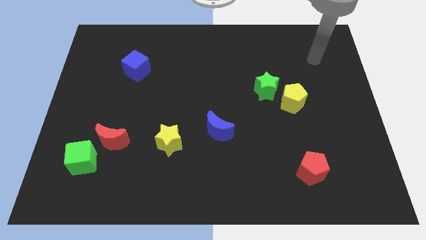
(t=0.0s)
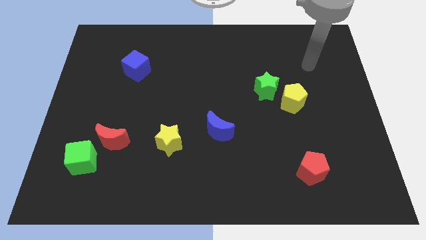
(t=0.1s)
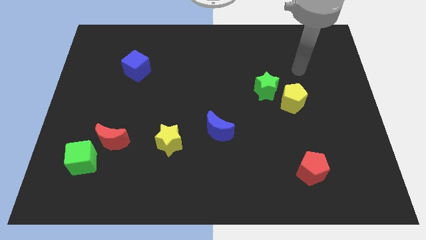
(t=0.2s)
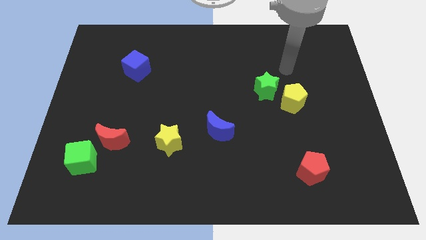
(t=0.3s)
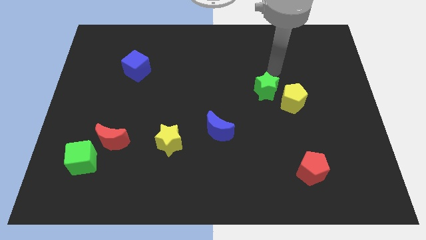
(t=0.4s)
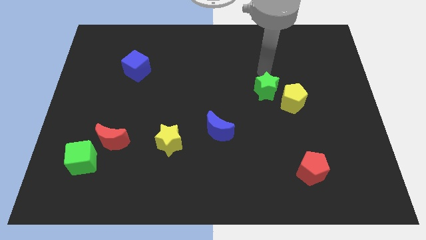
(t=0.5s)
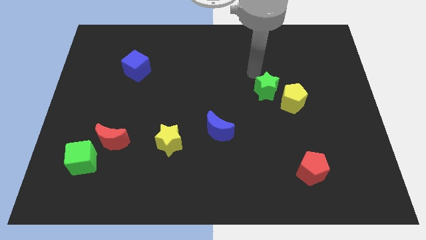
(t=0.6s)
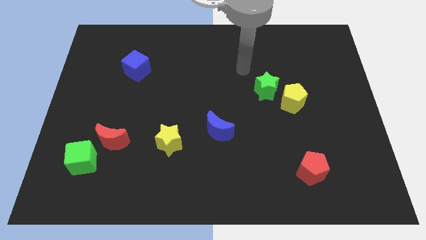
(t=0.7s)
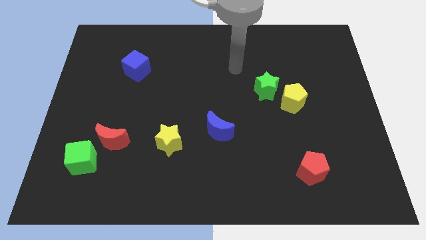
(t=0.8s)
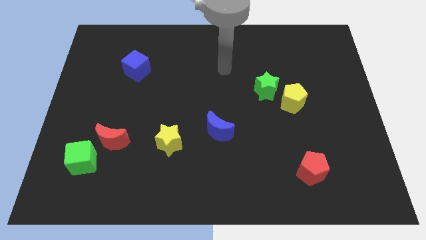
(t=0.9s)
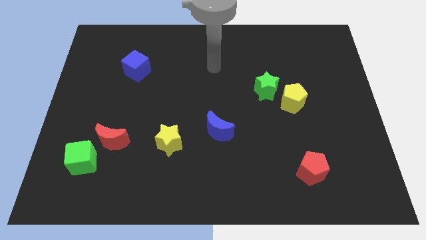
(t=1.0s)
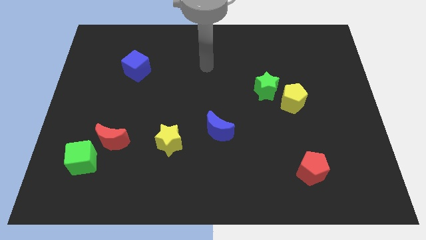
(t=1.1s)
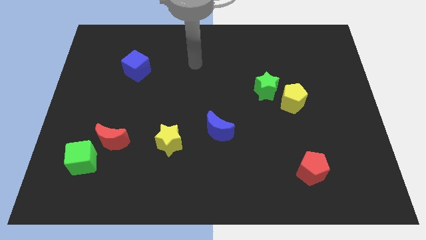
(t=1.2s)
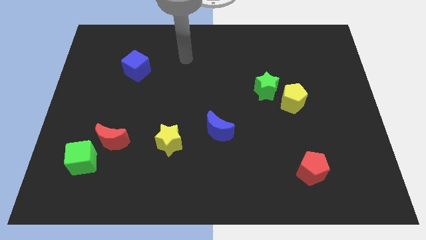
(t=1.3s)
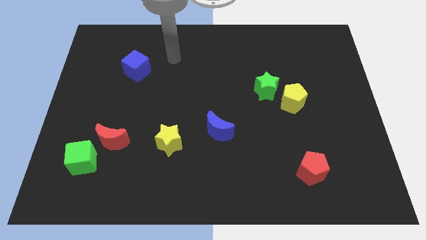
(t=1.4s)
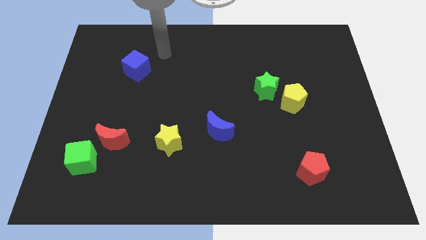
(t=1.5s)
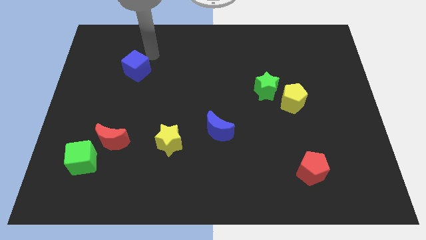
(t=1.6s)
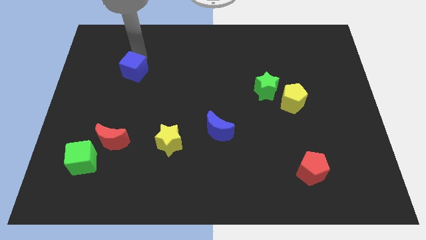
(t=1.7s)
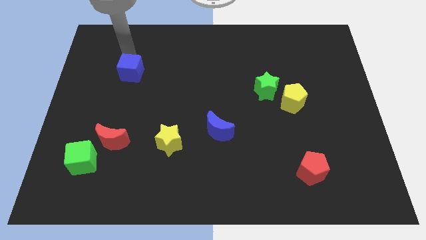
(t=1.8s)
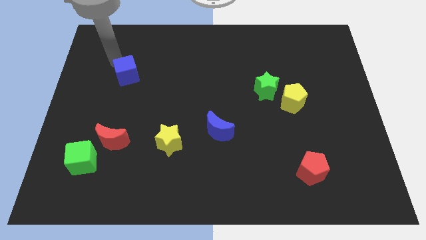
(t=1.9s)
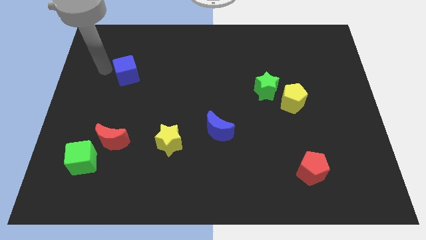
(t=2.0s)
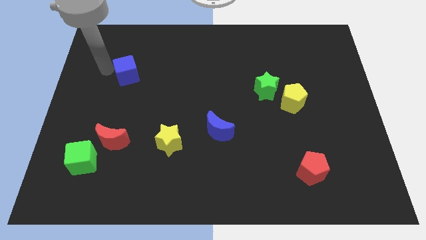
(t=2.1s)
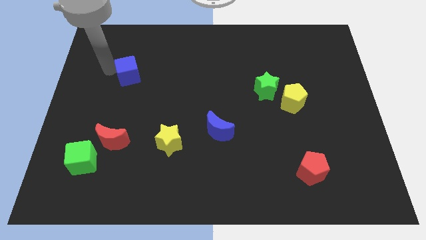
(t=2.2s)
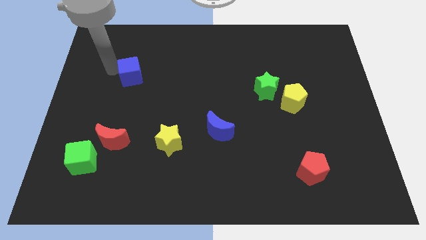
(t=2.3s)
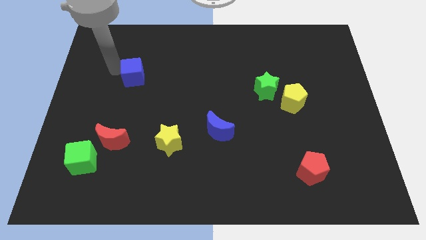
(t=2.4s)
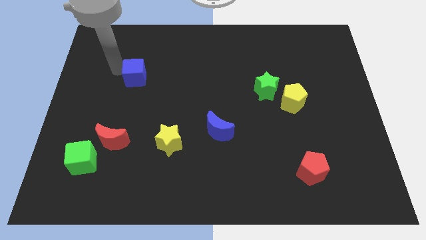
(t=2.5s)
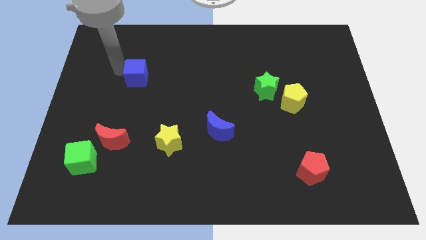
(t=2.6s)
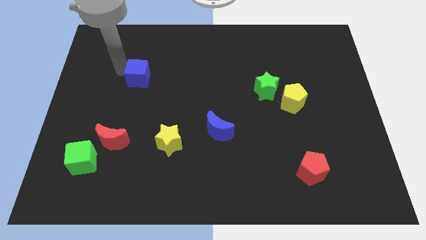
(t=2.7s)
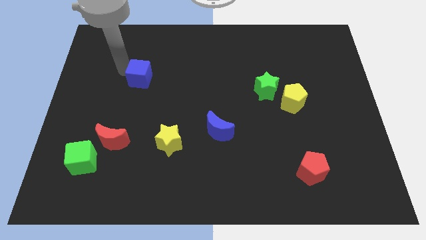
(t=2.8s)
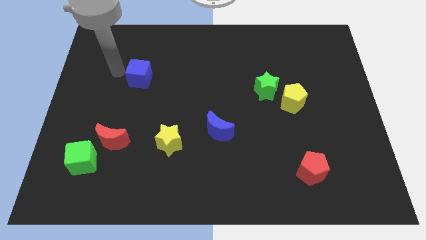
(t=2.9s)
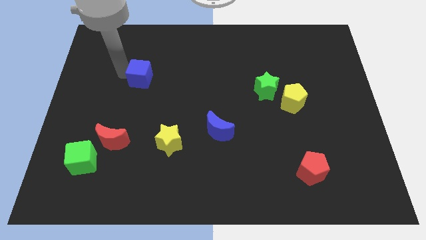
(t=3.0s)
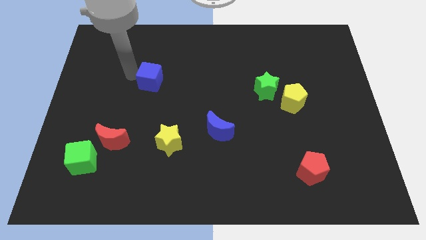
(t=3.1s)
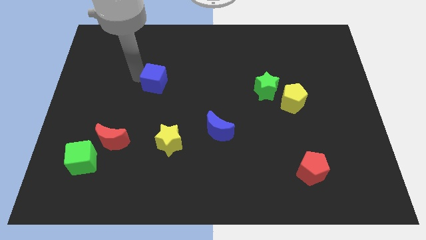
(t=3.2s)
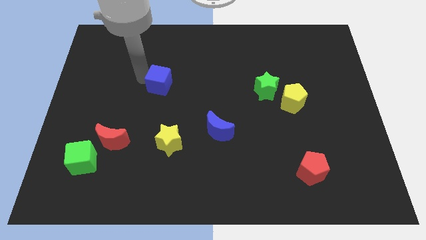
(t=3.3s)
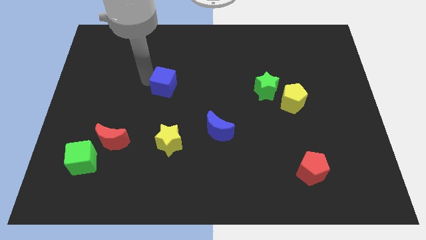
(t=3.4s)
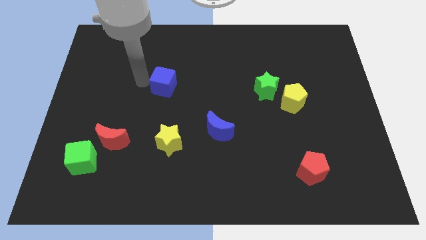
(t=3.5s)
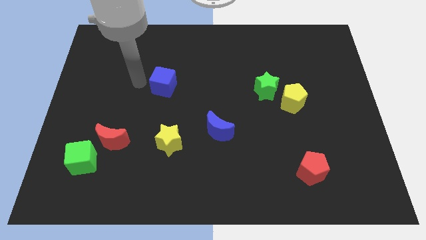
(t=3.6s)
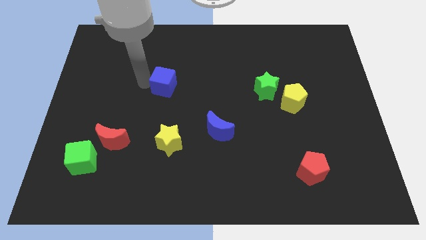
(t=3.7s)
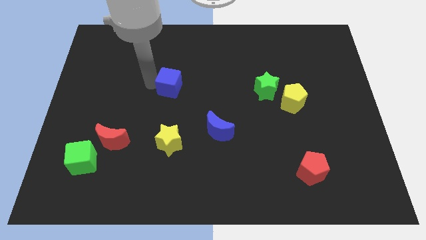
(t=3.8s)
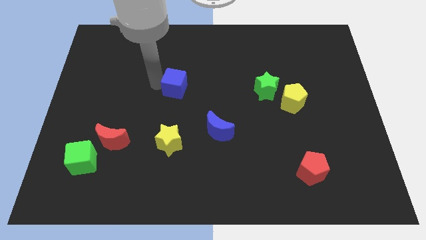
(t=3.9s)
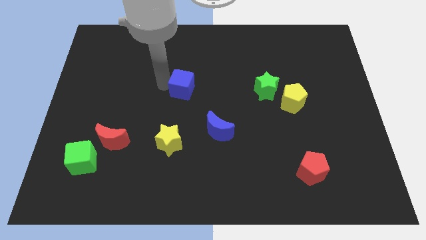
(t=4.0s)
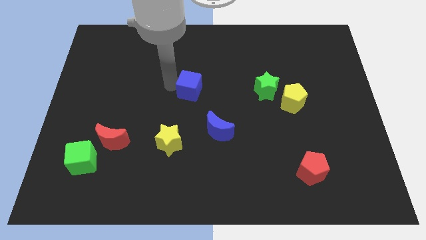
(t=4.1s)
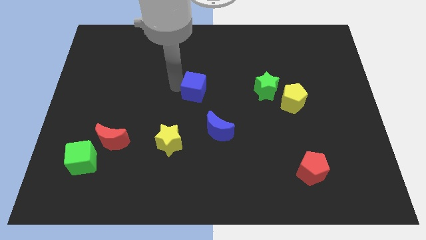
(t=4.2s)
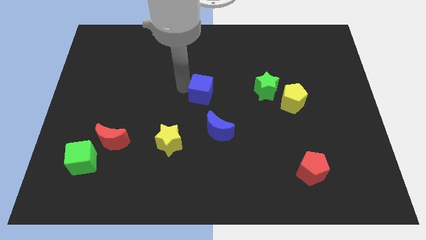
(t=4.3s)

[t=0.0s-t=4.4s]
move the blue cube to the top of the blue moon

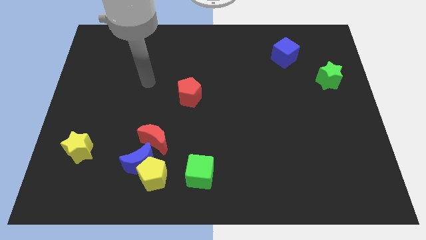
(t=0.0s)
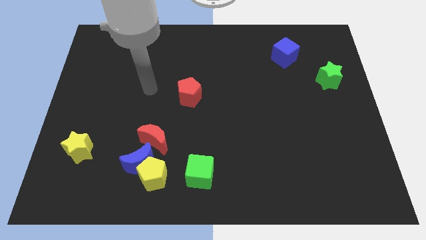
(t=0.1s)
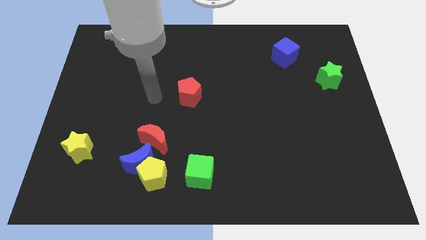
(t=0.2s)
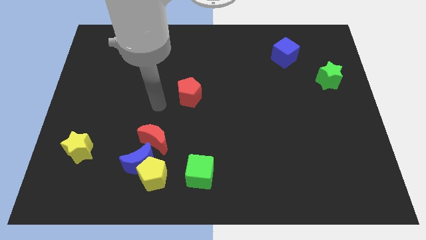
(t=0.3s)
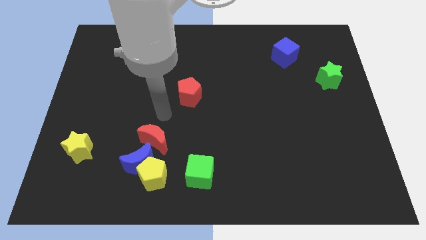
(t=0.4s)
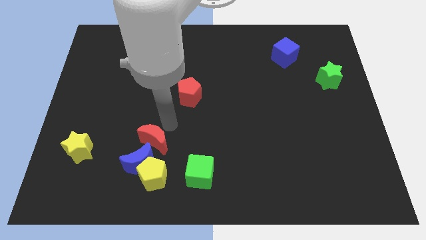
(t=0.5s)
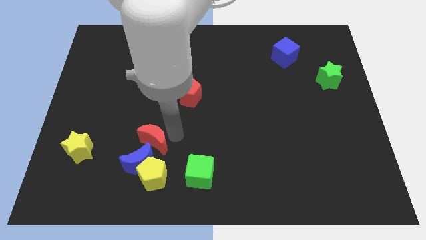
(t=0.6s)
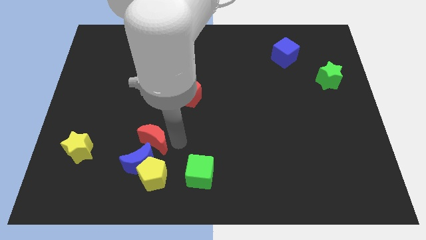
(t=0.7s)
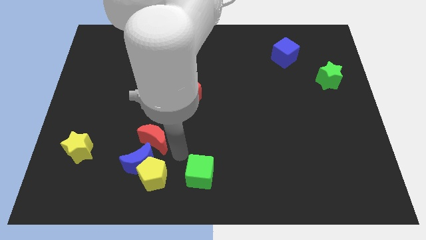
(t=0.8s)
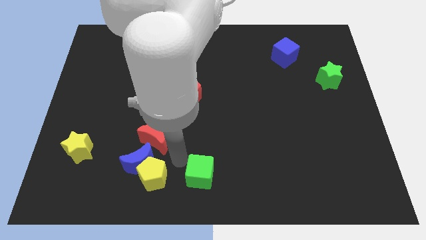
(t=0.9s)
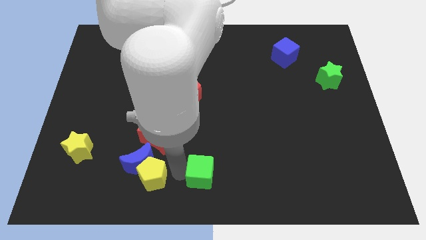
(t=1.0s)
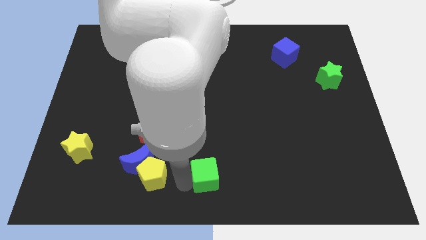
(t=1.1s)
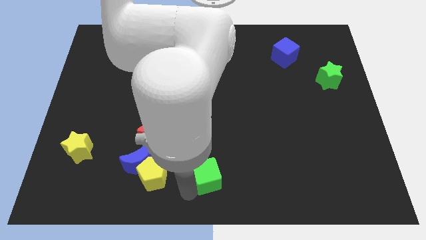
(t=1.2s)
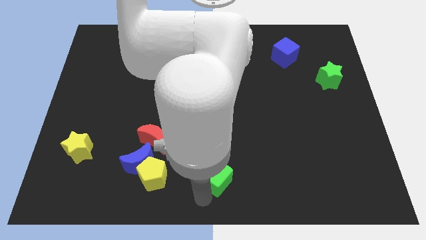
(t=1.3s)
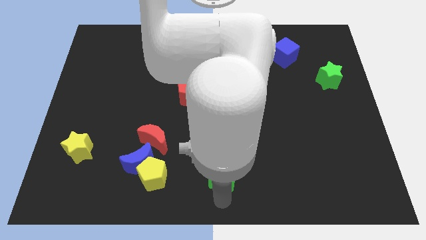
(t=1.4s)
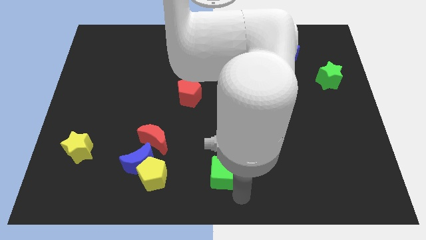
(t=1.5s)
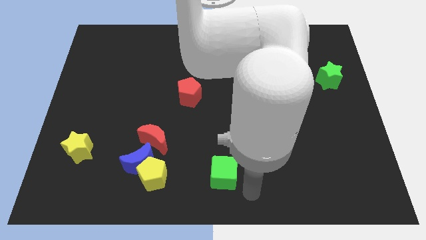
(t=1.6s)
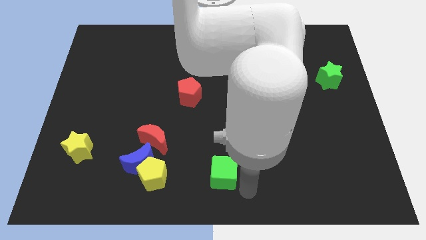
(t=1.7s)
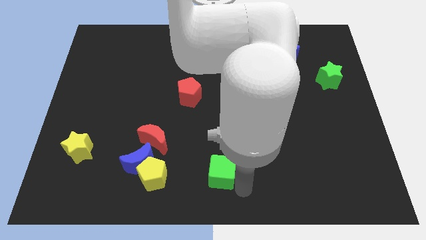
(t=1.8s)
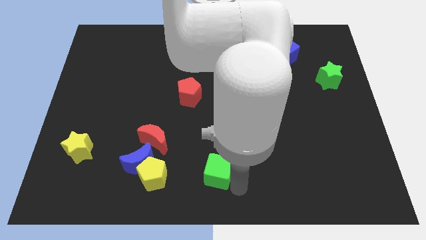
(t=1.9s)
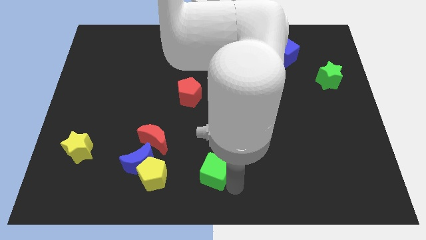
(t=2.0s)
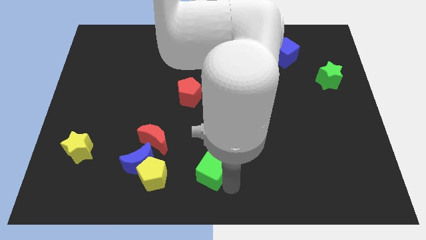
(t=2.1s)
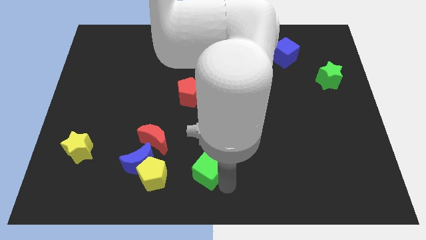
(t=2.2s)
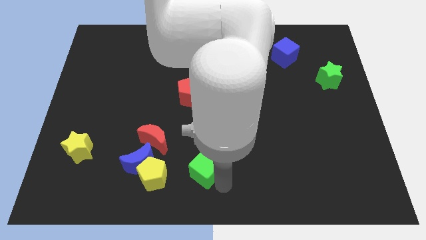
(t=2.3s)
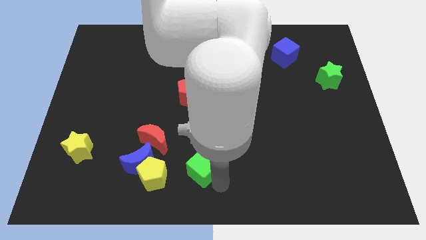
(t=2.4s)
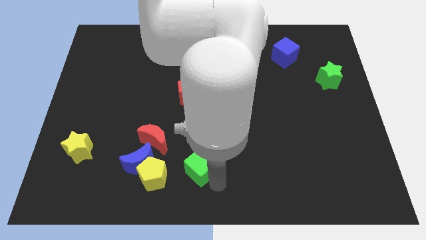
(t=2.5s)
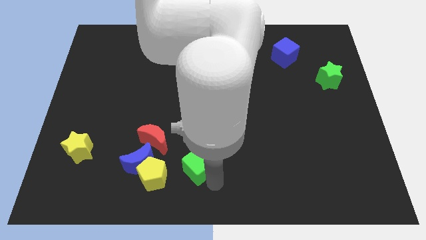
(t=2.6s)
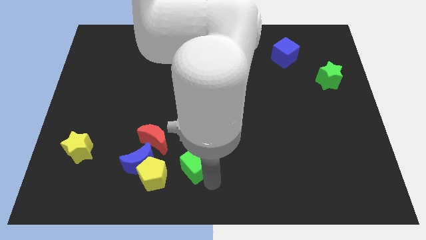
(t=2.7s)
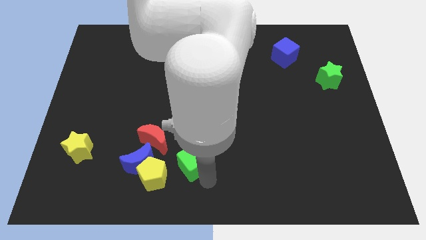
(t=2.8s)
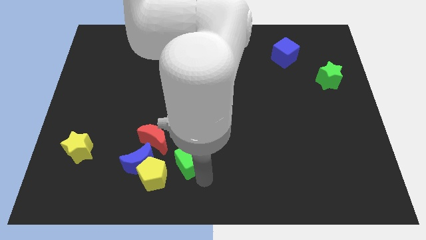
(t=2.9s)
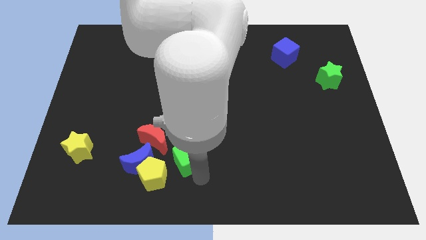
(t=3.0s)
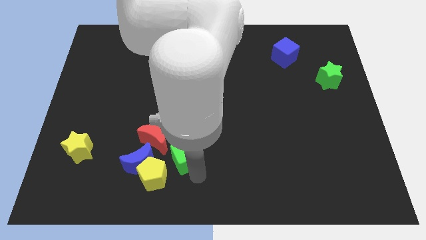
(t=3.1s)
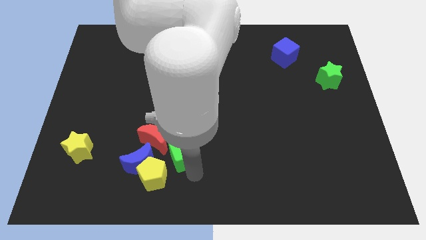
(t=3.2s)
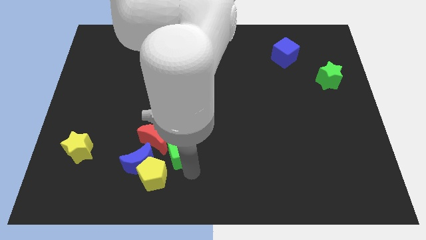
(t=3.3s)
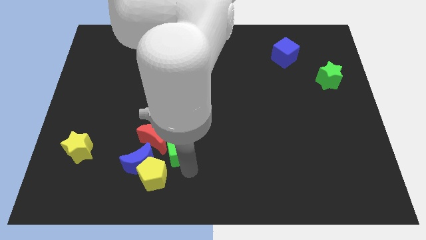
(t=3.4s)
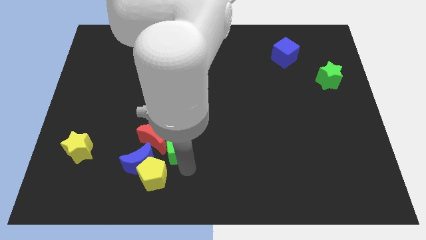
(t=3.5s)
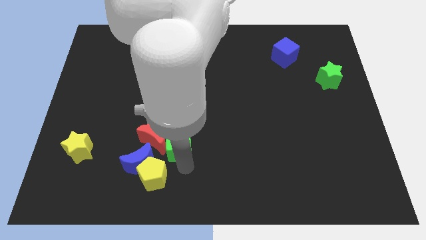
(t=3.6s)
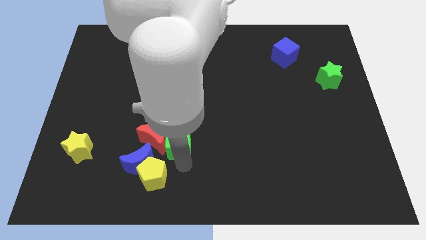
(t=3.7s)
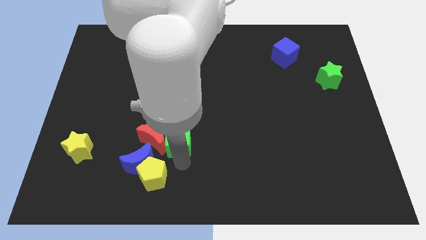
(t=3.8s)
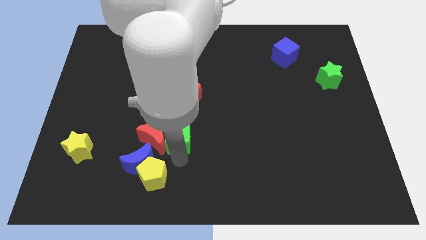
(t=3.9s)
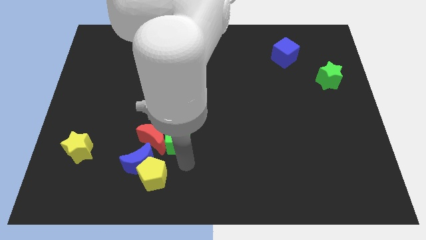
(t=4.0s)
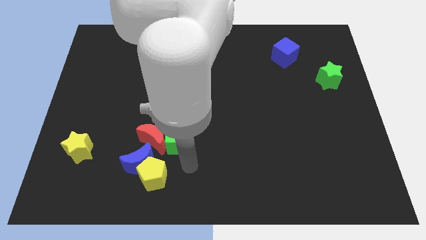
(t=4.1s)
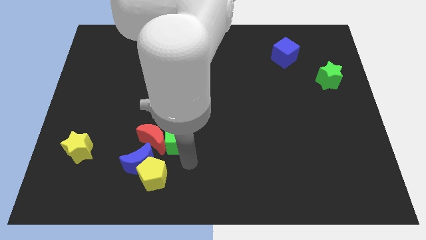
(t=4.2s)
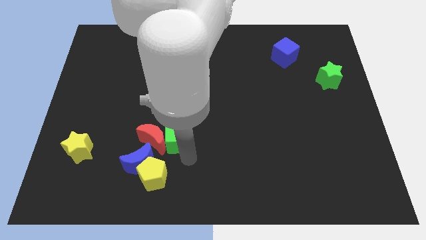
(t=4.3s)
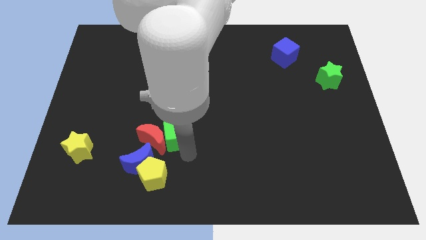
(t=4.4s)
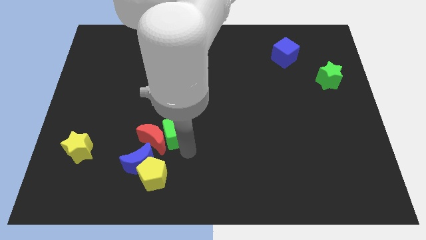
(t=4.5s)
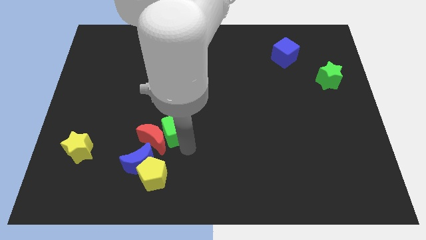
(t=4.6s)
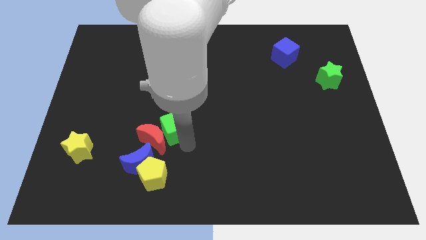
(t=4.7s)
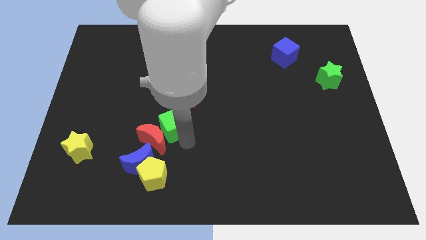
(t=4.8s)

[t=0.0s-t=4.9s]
push the green cube to the top of the red moon
